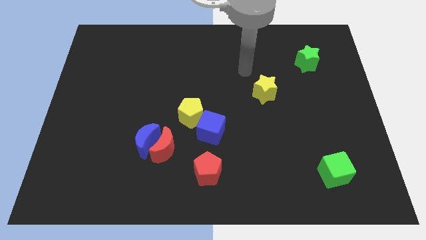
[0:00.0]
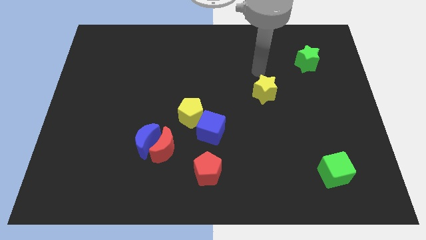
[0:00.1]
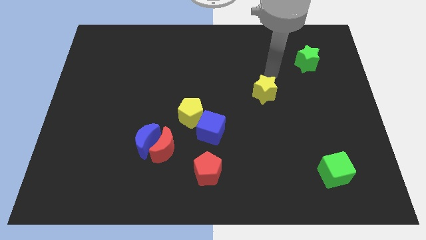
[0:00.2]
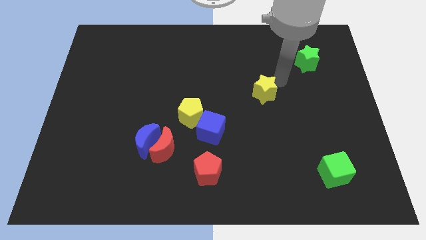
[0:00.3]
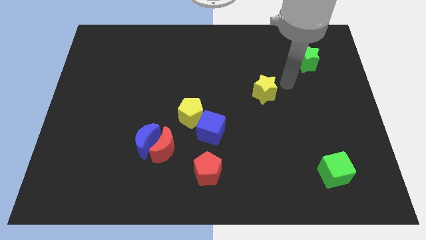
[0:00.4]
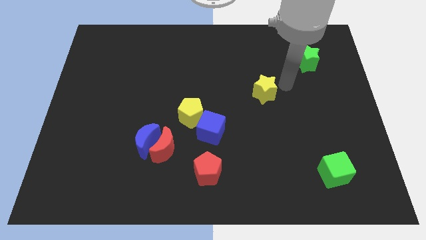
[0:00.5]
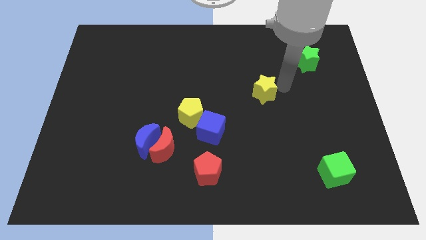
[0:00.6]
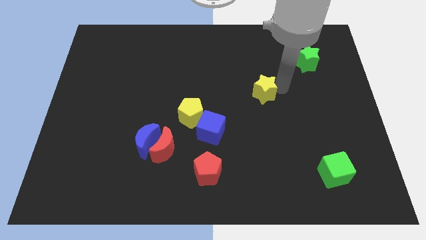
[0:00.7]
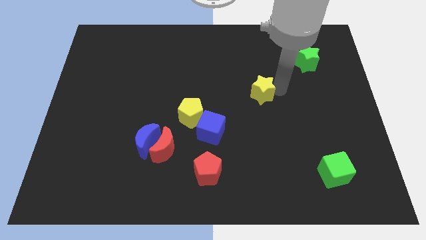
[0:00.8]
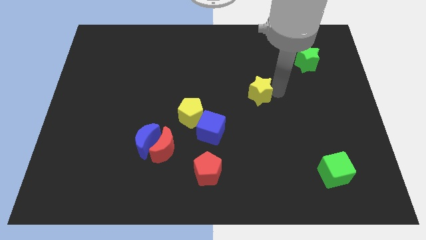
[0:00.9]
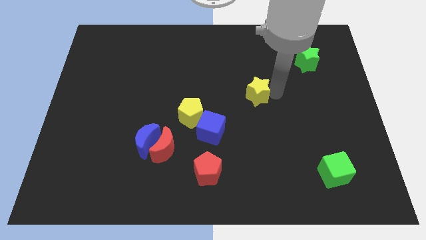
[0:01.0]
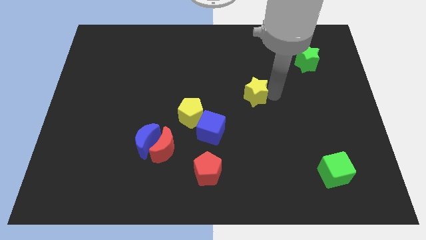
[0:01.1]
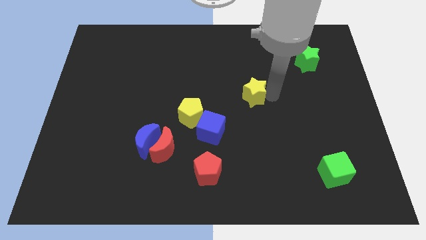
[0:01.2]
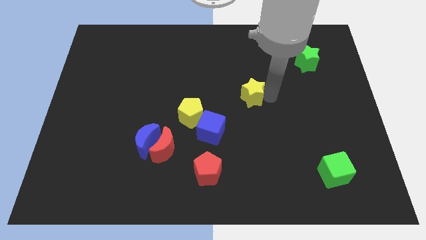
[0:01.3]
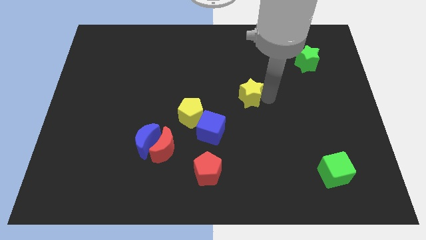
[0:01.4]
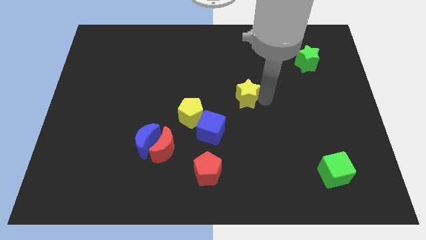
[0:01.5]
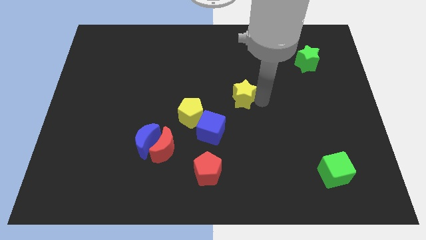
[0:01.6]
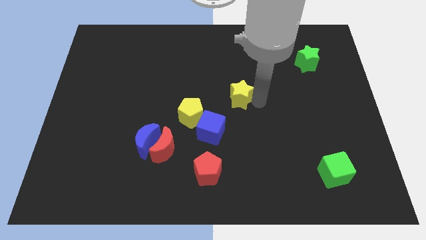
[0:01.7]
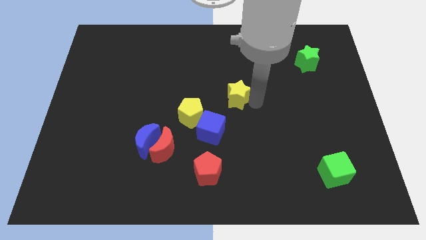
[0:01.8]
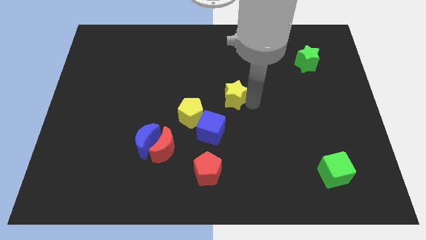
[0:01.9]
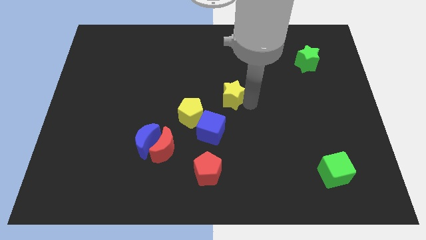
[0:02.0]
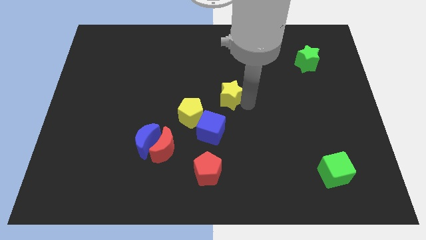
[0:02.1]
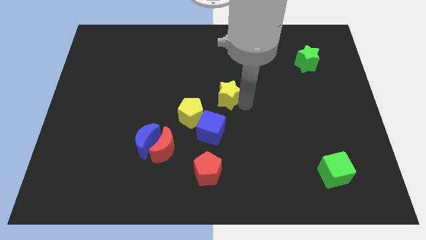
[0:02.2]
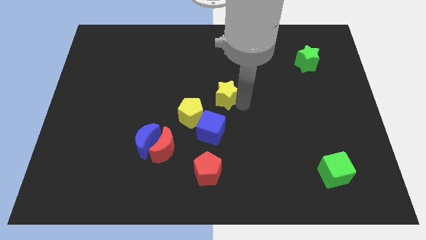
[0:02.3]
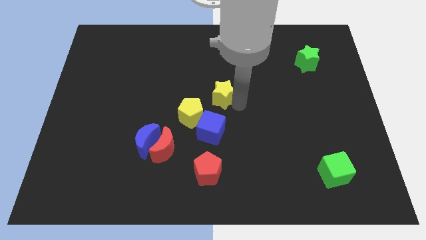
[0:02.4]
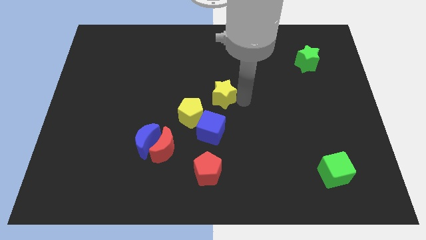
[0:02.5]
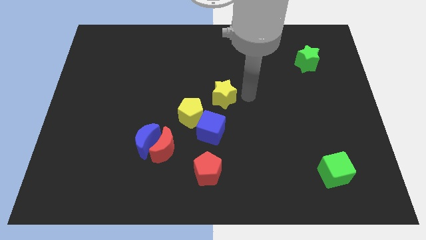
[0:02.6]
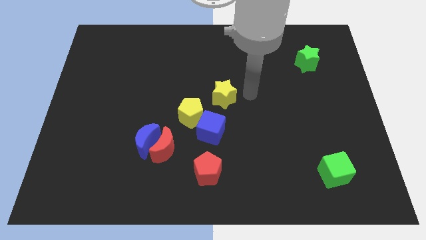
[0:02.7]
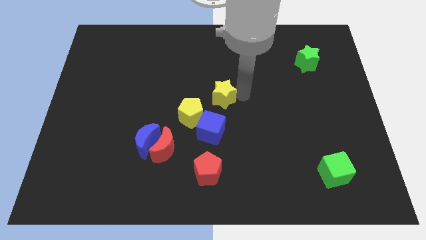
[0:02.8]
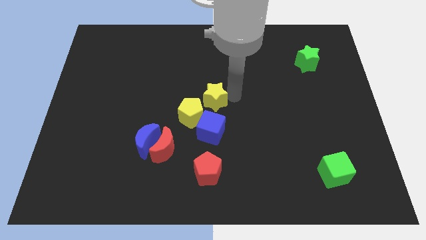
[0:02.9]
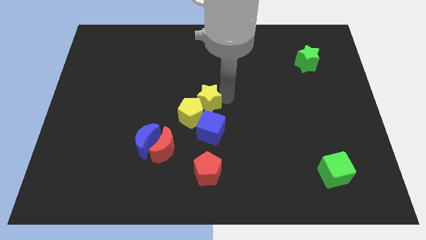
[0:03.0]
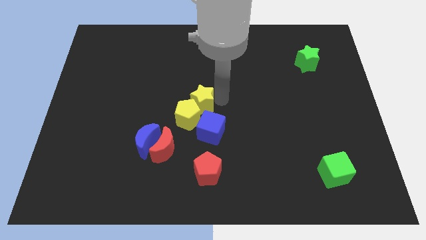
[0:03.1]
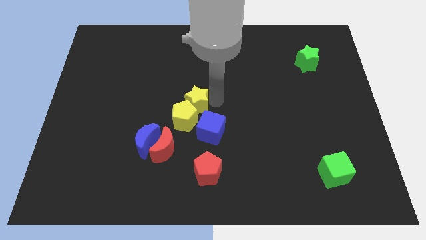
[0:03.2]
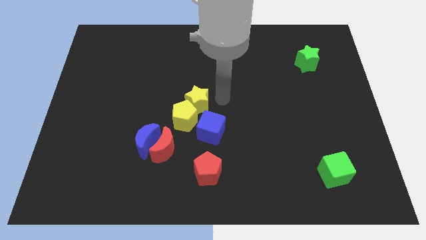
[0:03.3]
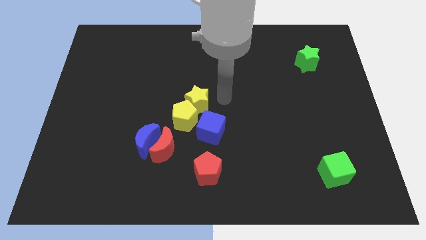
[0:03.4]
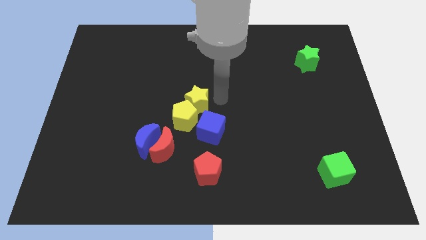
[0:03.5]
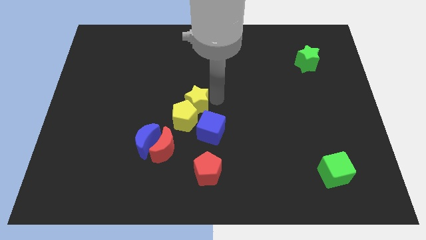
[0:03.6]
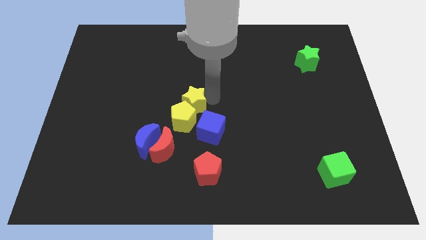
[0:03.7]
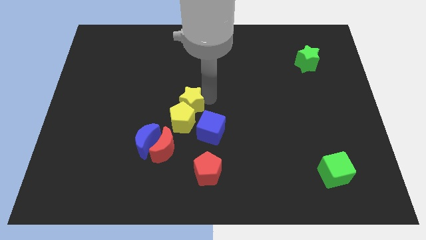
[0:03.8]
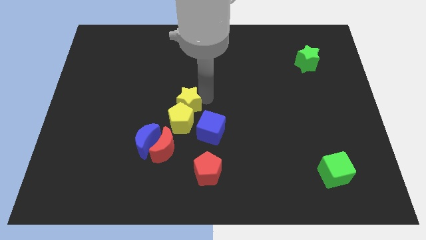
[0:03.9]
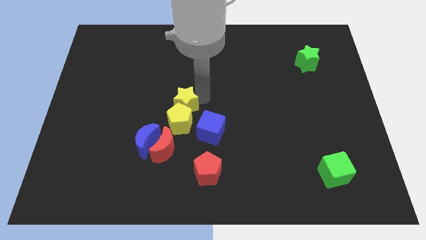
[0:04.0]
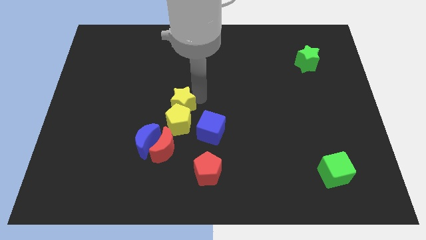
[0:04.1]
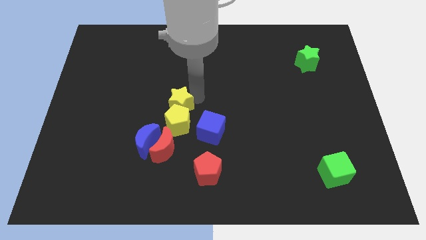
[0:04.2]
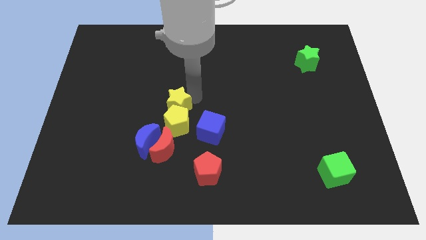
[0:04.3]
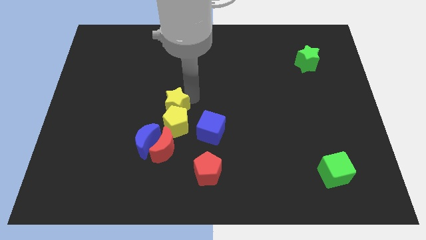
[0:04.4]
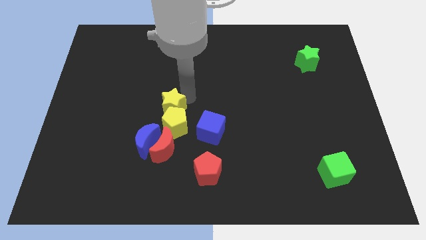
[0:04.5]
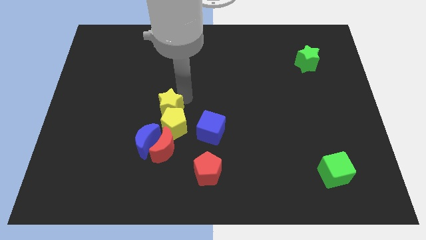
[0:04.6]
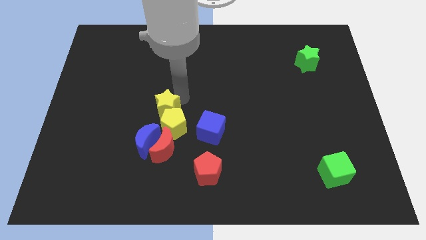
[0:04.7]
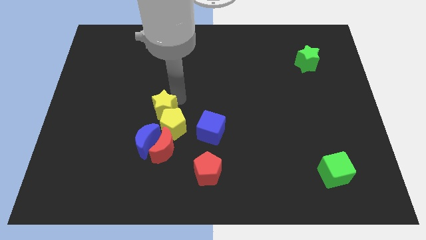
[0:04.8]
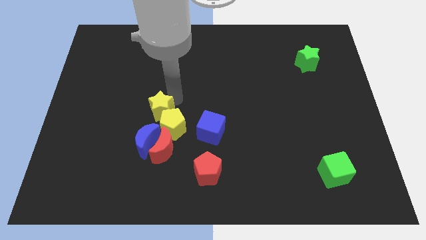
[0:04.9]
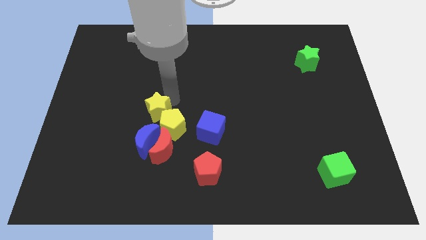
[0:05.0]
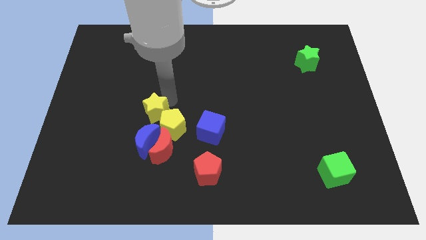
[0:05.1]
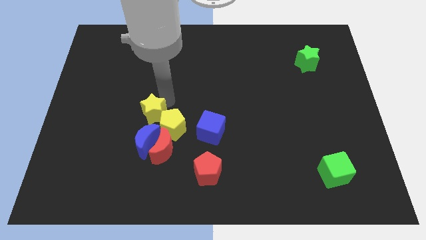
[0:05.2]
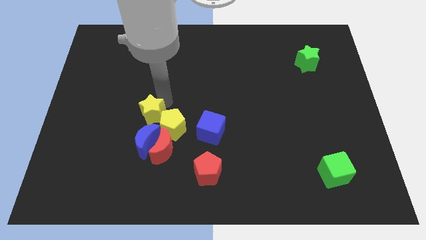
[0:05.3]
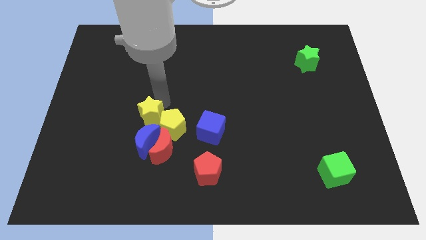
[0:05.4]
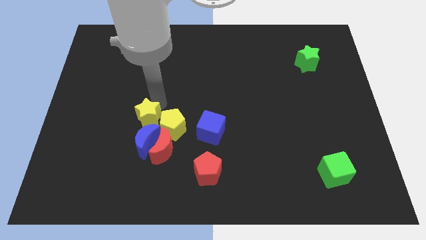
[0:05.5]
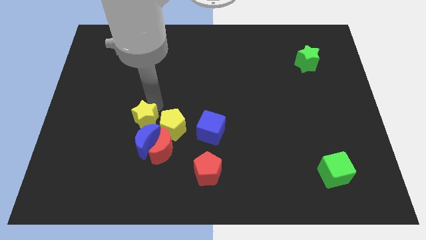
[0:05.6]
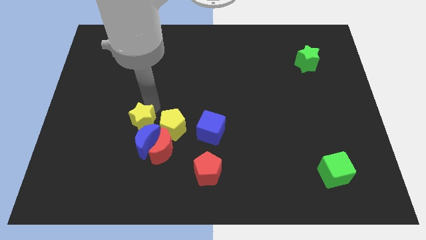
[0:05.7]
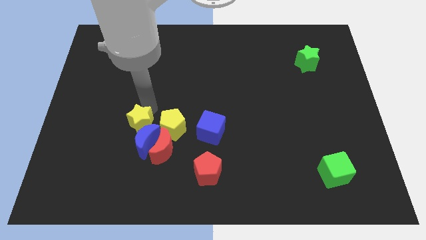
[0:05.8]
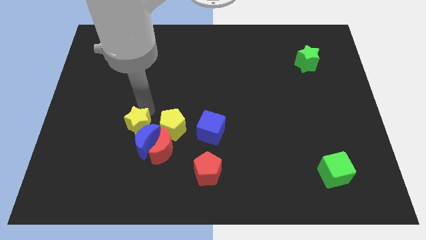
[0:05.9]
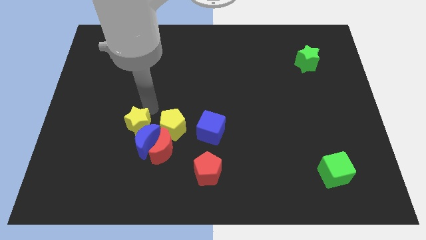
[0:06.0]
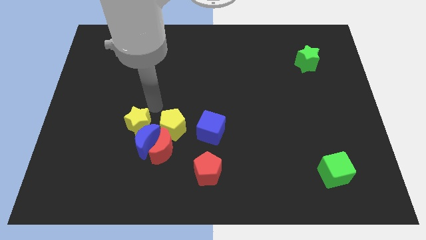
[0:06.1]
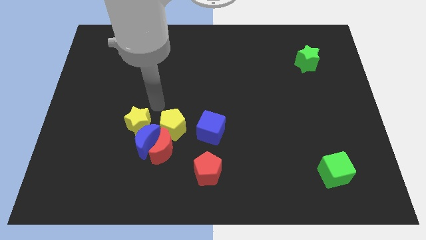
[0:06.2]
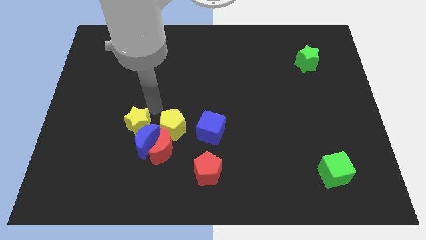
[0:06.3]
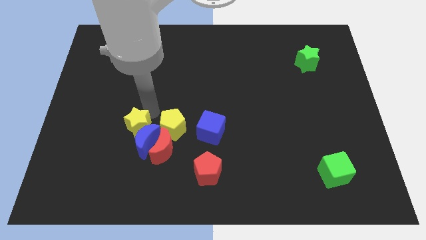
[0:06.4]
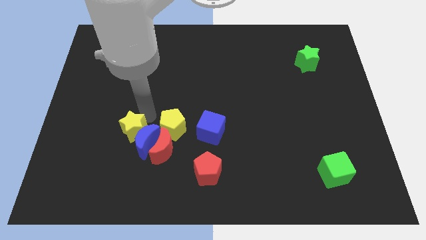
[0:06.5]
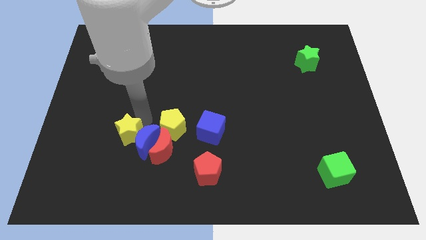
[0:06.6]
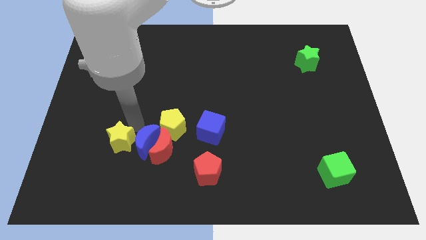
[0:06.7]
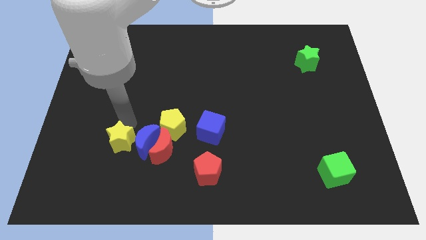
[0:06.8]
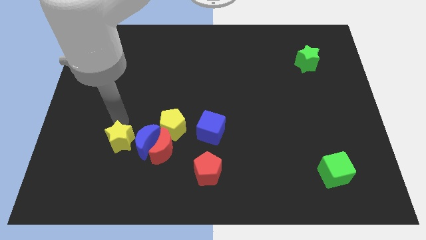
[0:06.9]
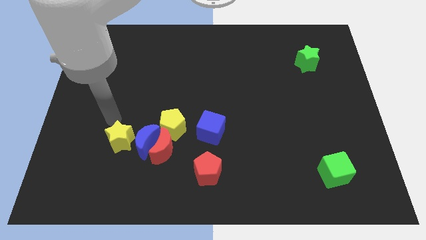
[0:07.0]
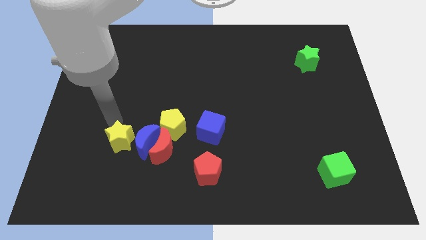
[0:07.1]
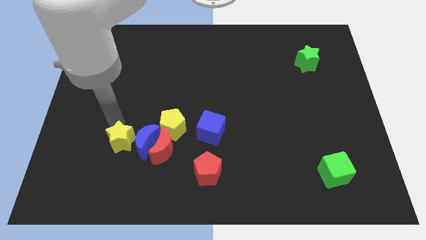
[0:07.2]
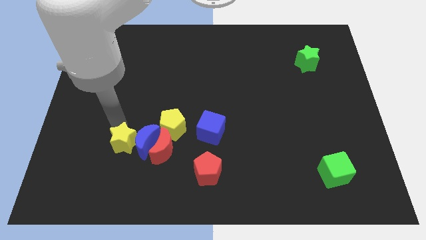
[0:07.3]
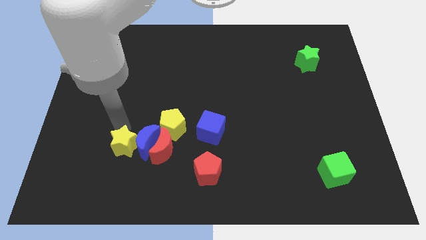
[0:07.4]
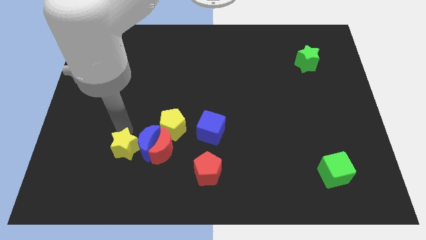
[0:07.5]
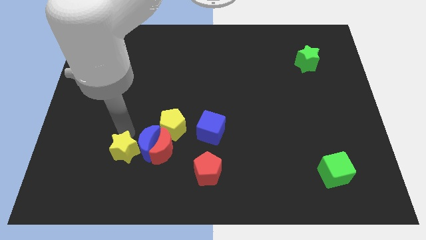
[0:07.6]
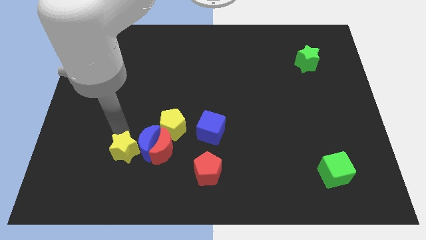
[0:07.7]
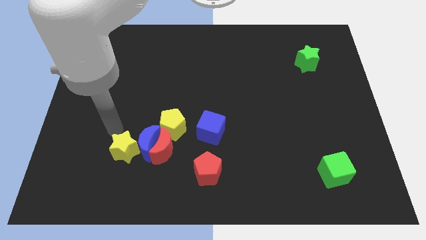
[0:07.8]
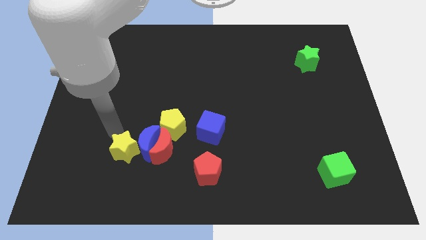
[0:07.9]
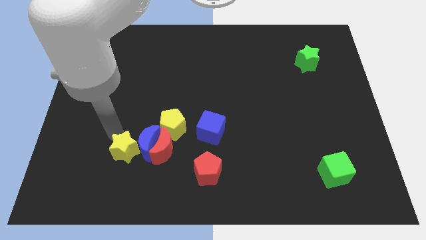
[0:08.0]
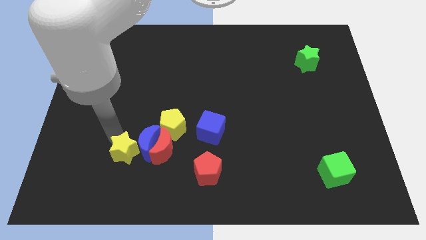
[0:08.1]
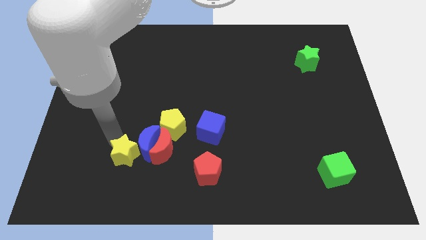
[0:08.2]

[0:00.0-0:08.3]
slide the yellow star to the bottom left of the red moon
